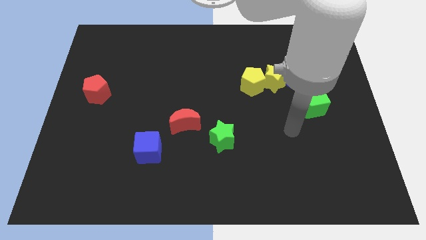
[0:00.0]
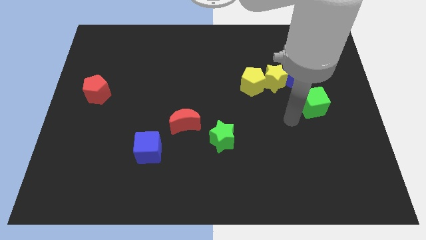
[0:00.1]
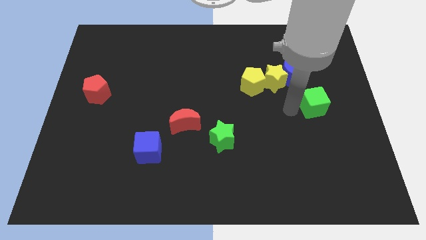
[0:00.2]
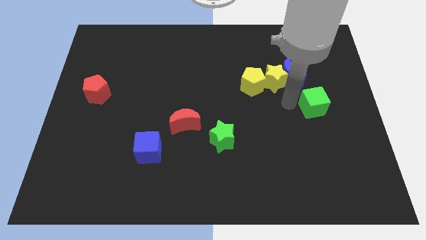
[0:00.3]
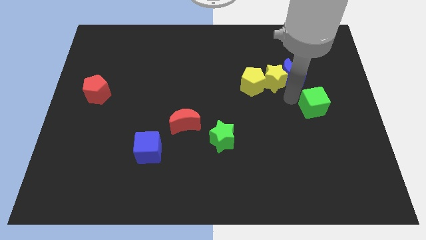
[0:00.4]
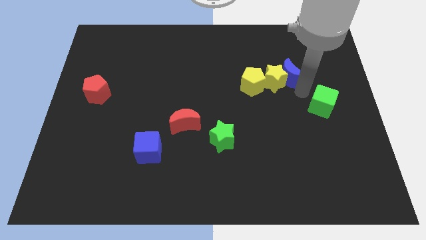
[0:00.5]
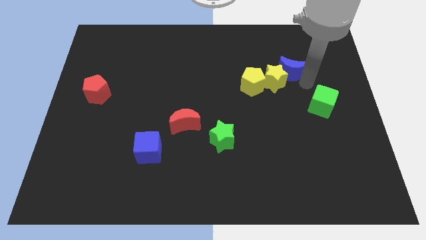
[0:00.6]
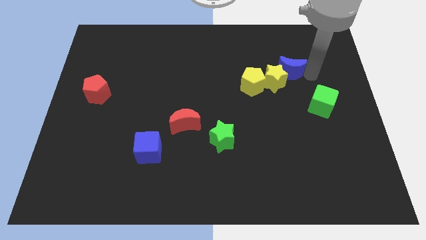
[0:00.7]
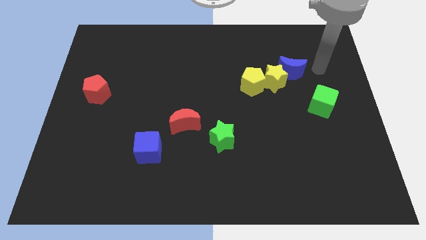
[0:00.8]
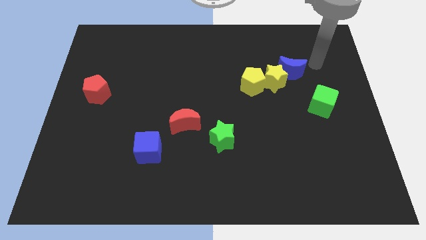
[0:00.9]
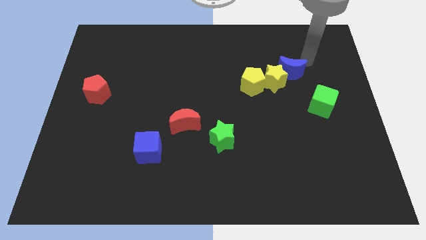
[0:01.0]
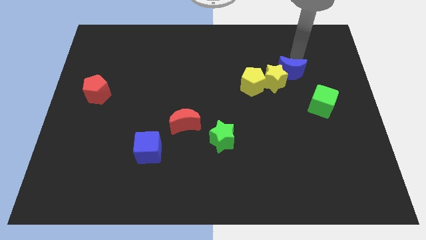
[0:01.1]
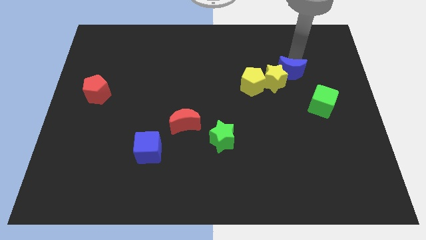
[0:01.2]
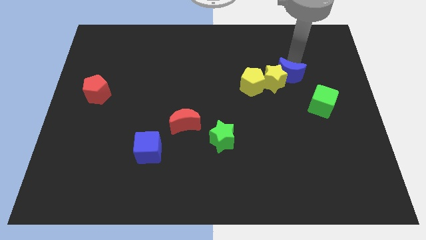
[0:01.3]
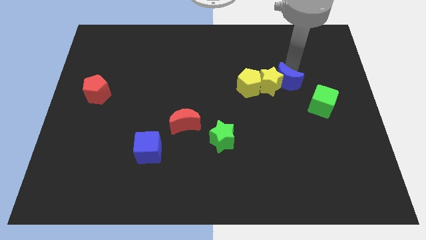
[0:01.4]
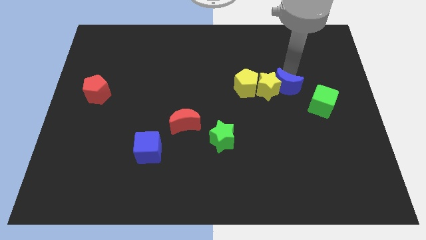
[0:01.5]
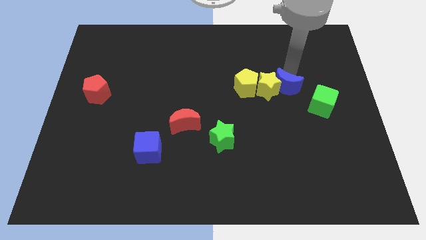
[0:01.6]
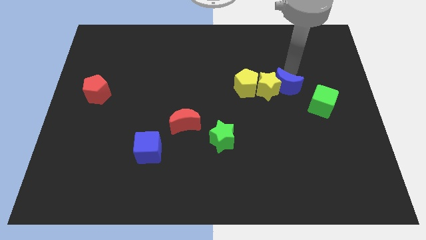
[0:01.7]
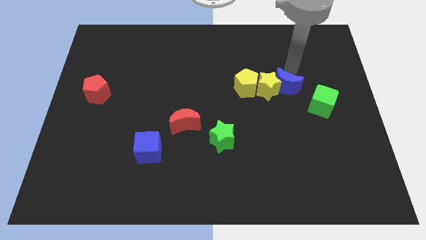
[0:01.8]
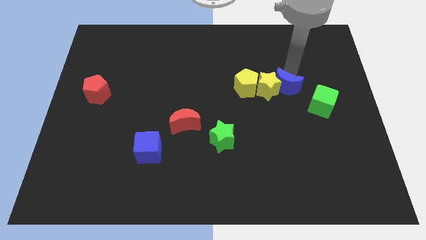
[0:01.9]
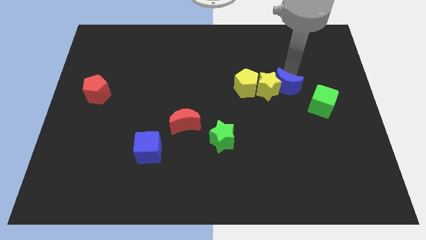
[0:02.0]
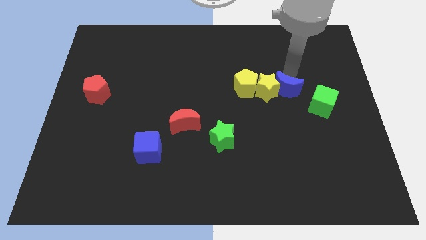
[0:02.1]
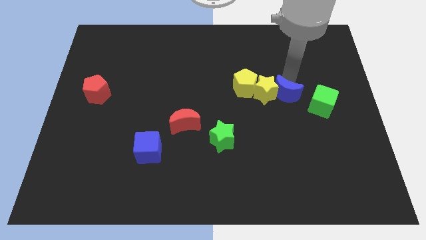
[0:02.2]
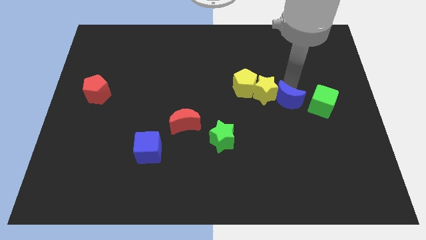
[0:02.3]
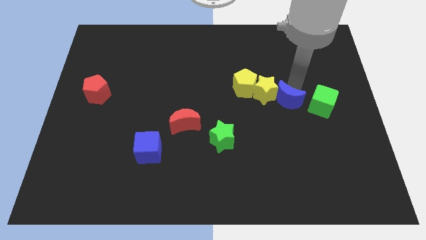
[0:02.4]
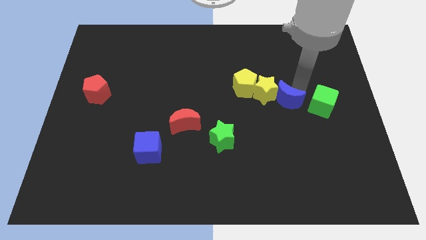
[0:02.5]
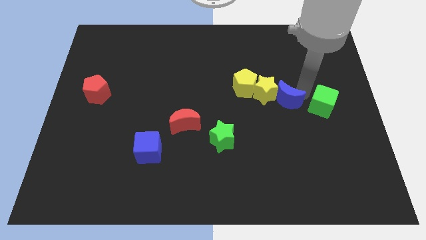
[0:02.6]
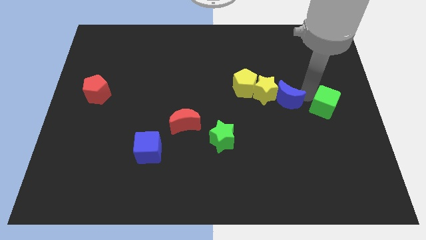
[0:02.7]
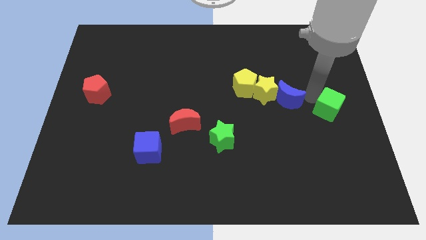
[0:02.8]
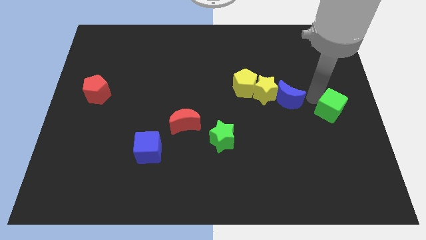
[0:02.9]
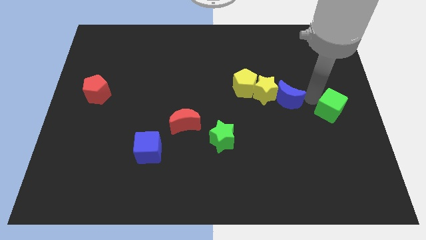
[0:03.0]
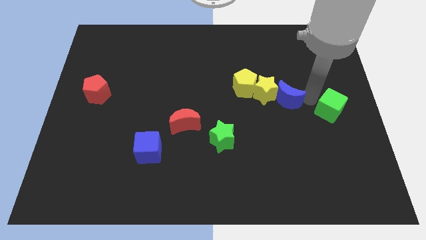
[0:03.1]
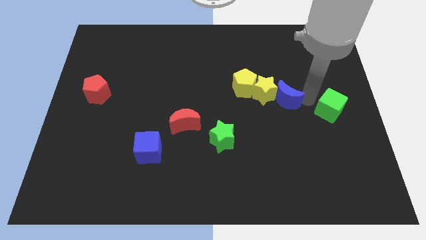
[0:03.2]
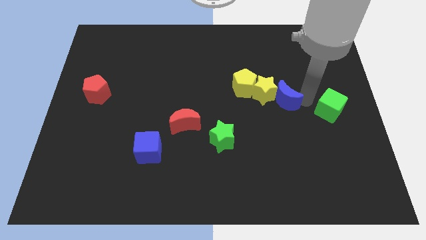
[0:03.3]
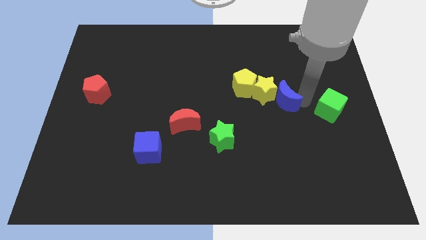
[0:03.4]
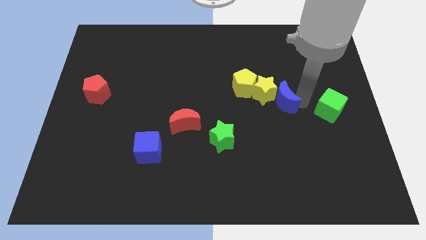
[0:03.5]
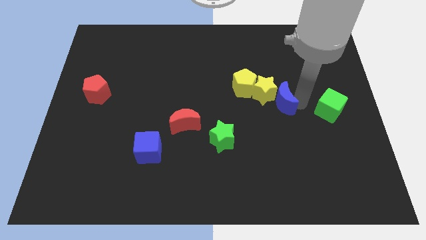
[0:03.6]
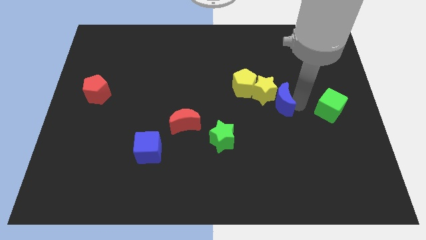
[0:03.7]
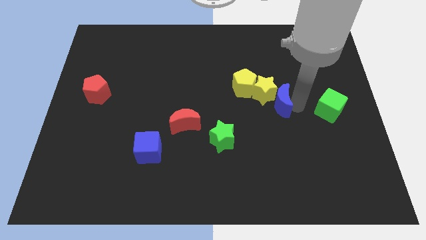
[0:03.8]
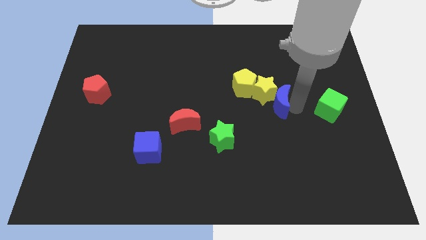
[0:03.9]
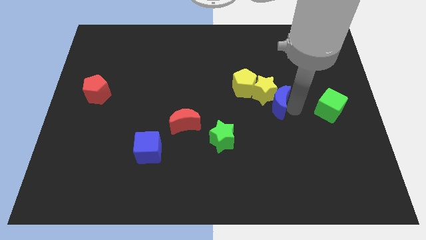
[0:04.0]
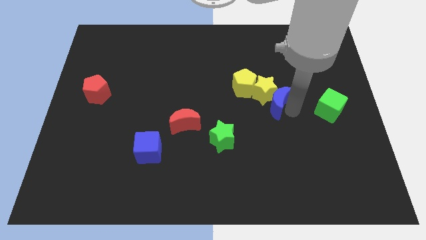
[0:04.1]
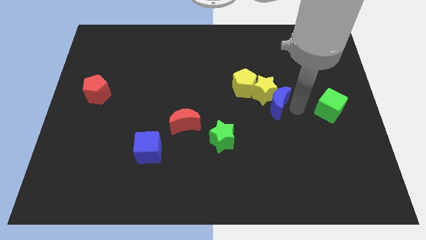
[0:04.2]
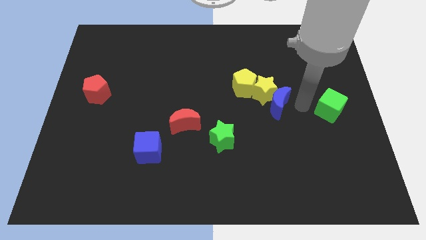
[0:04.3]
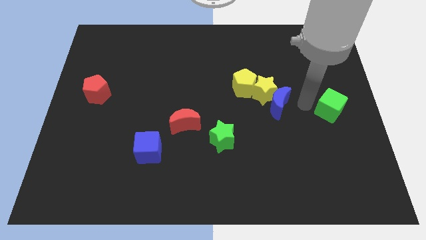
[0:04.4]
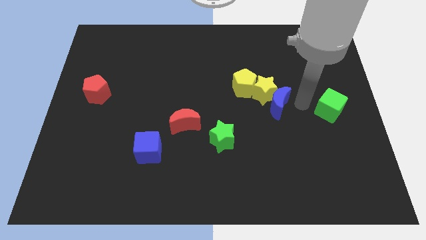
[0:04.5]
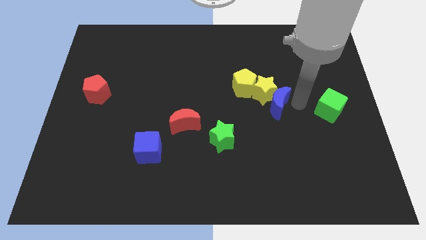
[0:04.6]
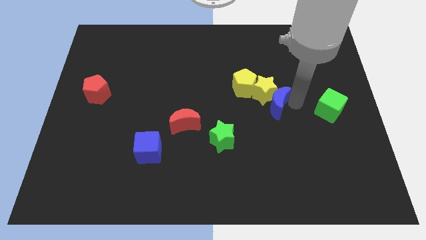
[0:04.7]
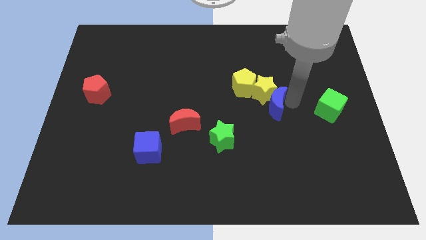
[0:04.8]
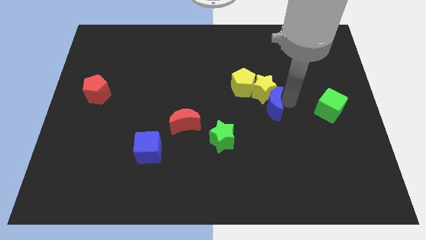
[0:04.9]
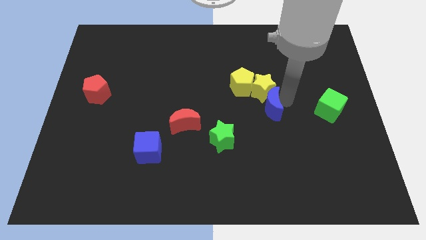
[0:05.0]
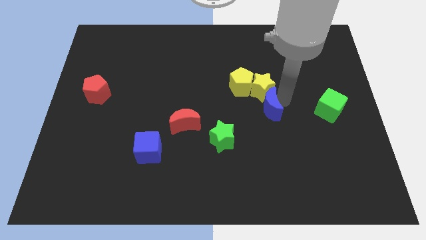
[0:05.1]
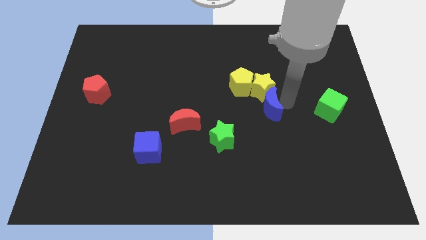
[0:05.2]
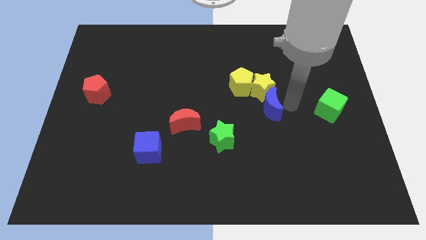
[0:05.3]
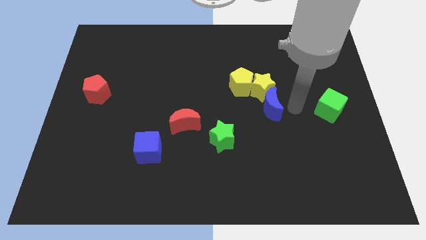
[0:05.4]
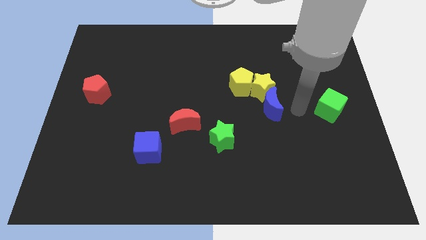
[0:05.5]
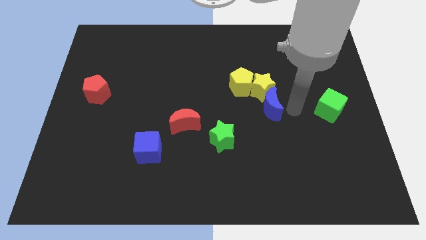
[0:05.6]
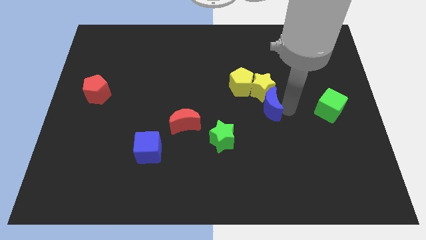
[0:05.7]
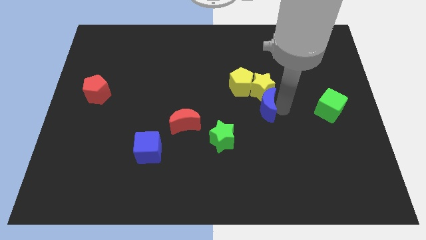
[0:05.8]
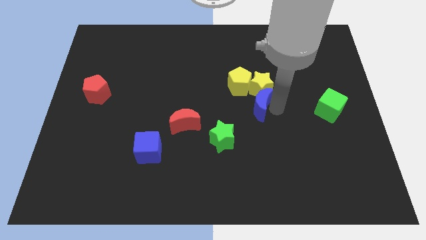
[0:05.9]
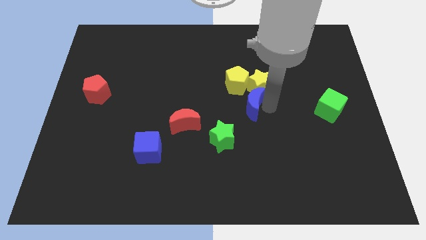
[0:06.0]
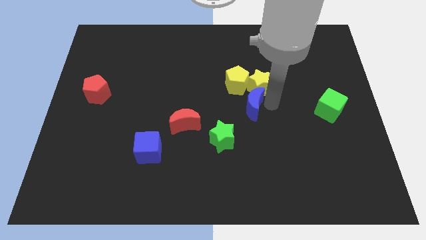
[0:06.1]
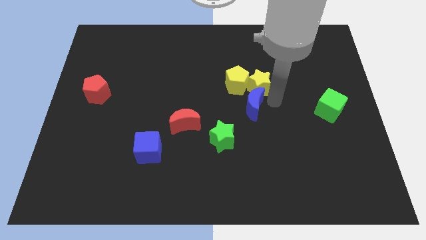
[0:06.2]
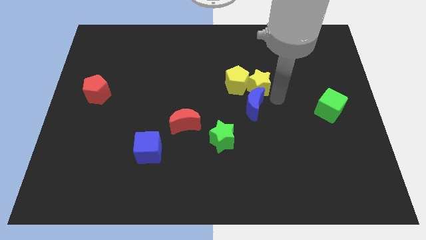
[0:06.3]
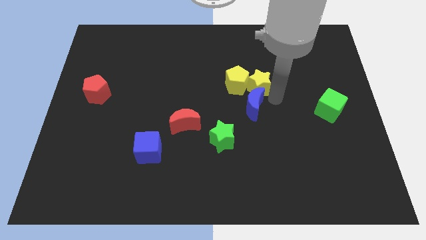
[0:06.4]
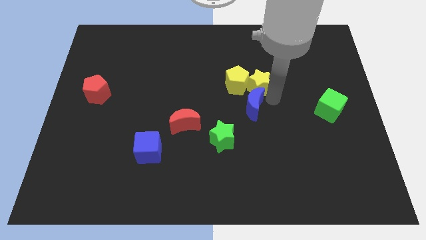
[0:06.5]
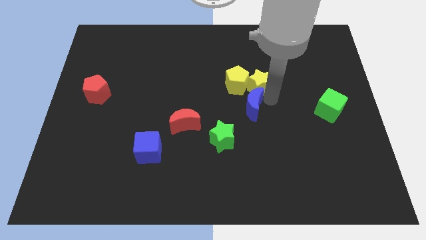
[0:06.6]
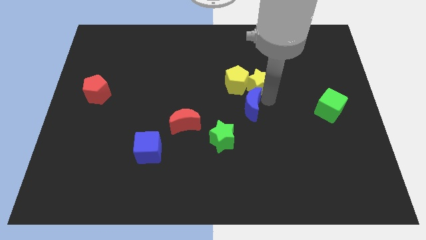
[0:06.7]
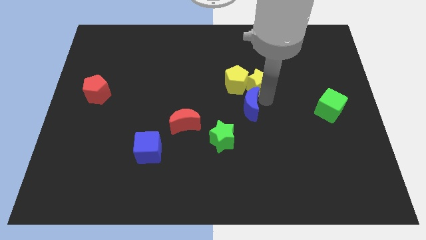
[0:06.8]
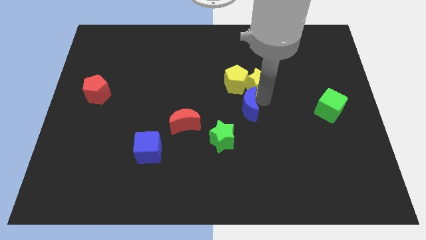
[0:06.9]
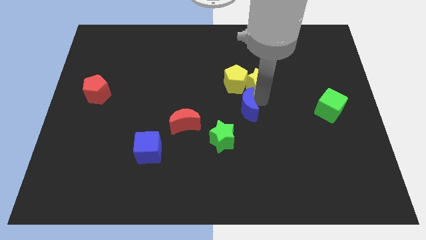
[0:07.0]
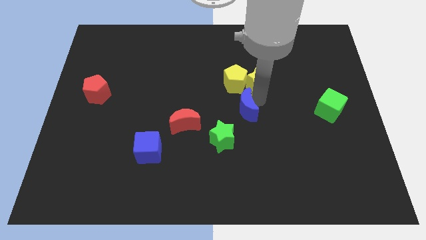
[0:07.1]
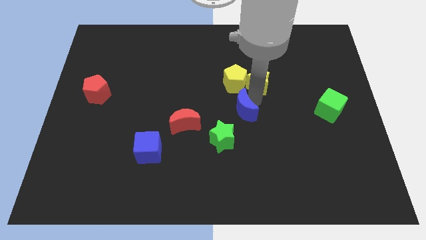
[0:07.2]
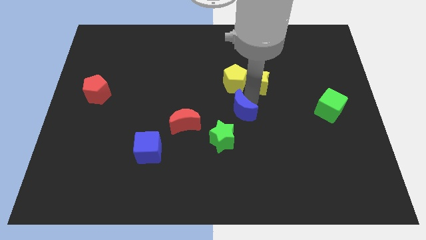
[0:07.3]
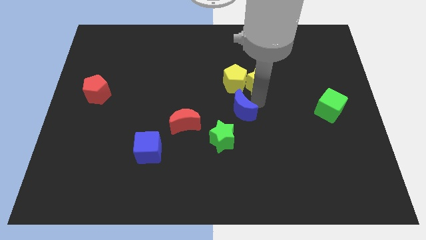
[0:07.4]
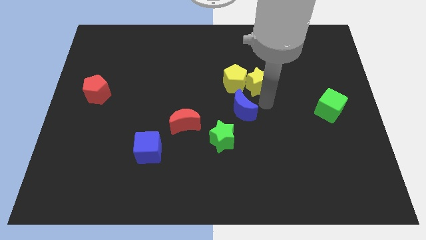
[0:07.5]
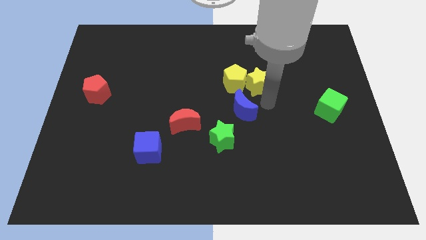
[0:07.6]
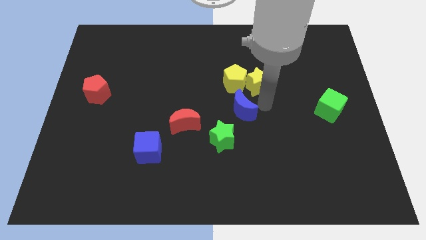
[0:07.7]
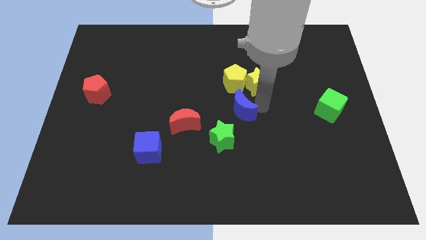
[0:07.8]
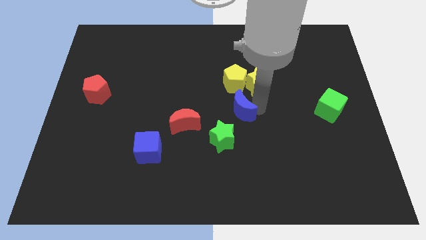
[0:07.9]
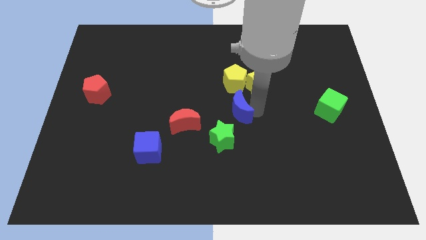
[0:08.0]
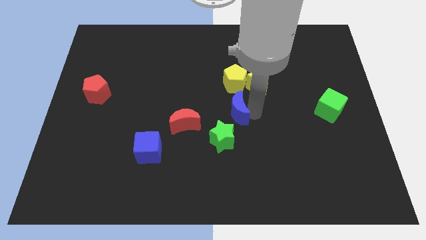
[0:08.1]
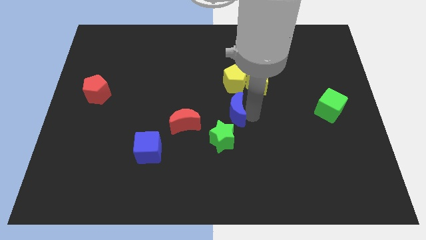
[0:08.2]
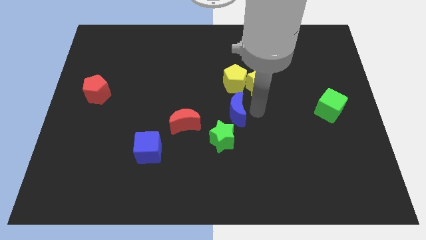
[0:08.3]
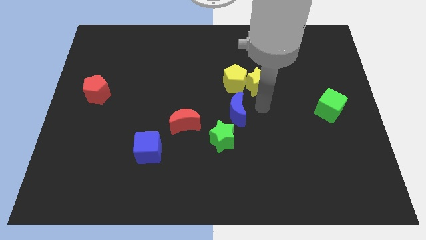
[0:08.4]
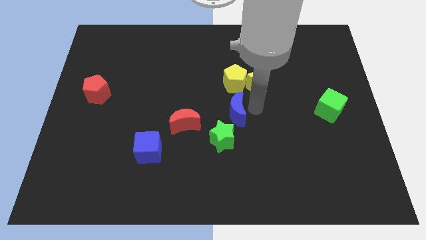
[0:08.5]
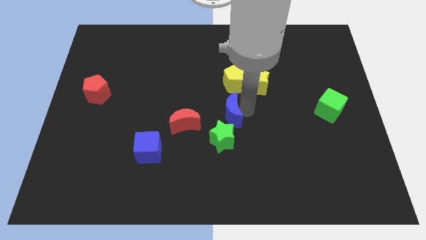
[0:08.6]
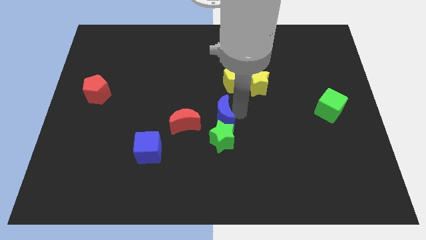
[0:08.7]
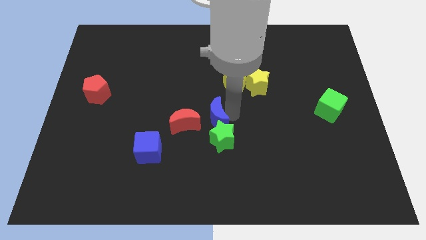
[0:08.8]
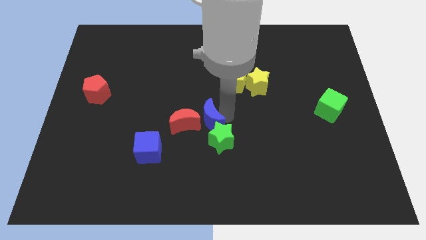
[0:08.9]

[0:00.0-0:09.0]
push the blue moon close to the red moon
